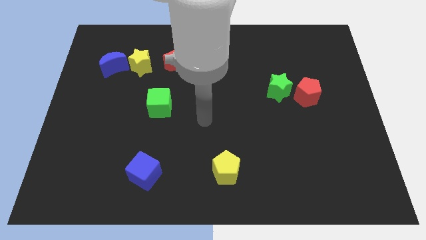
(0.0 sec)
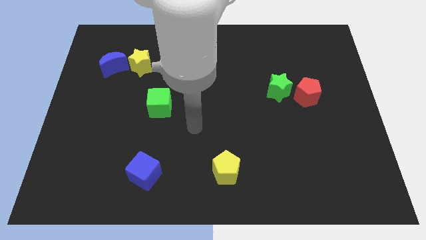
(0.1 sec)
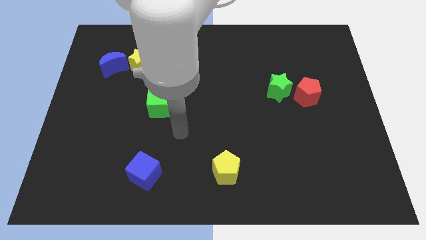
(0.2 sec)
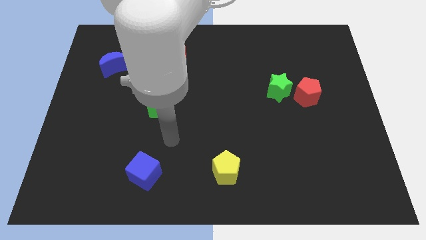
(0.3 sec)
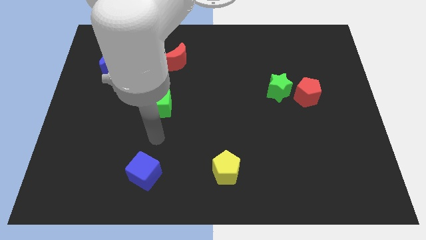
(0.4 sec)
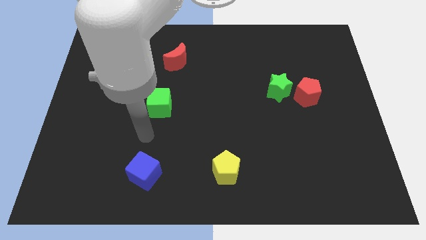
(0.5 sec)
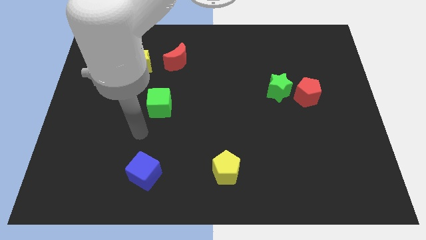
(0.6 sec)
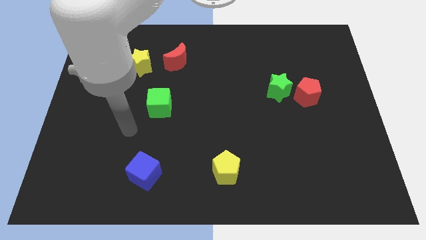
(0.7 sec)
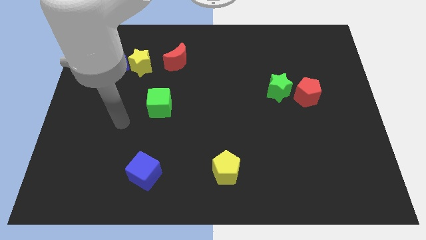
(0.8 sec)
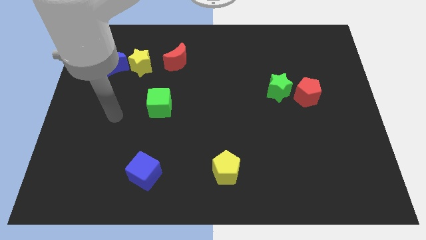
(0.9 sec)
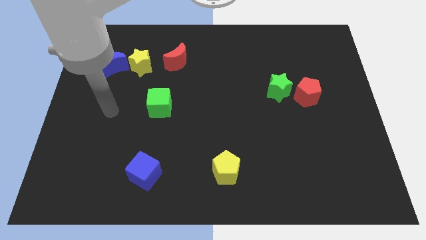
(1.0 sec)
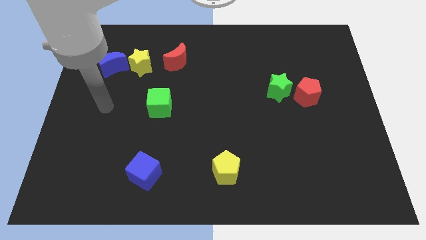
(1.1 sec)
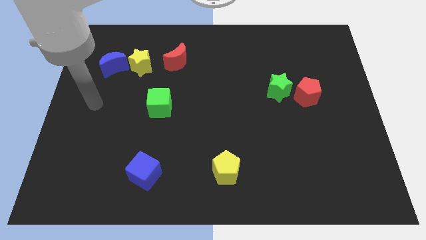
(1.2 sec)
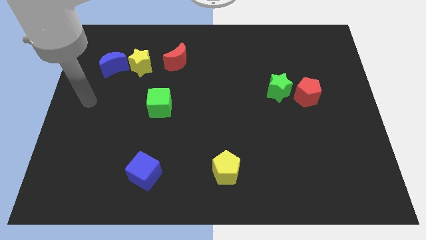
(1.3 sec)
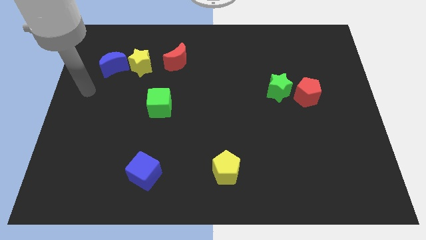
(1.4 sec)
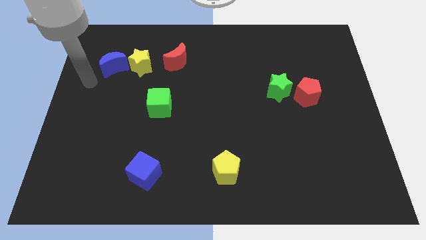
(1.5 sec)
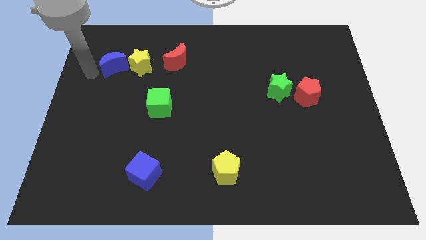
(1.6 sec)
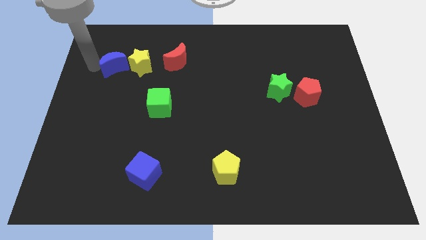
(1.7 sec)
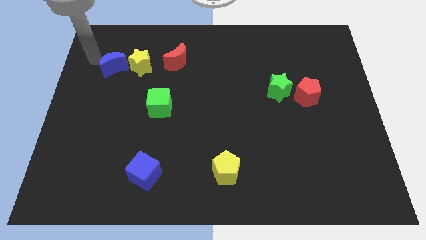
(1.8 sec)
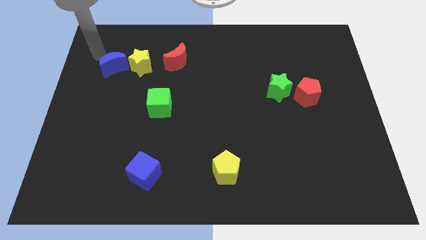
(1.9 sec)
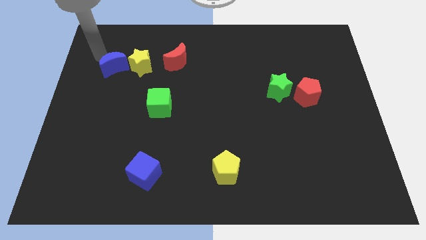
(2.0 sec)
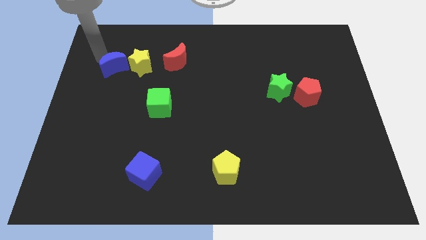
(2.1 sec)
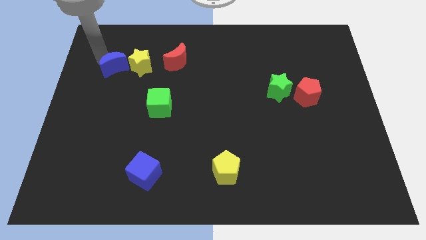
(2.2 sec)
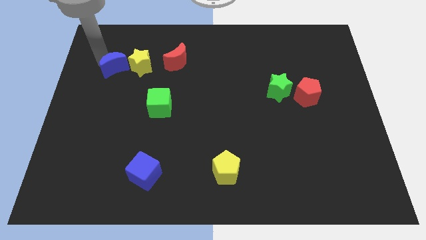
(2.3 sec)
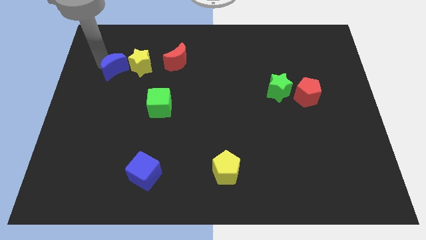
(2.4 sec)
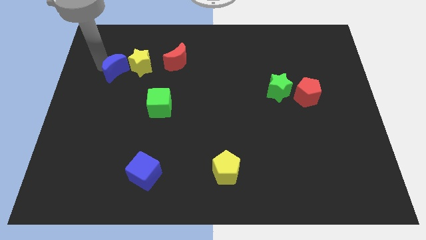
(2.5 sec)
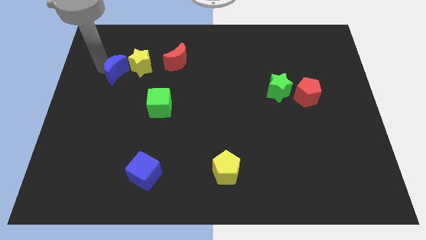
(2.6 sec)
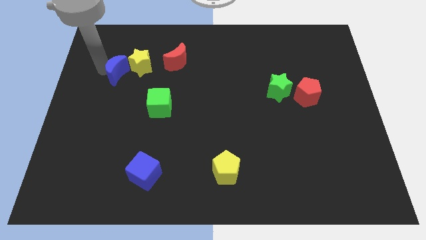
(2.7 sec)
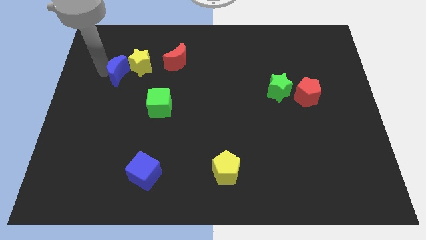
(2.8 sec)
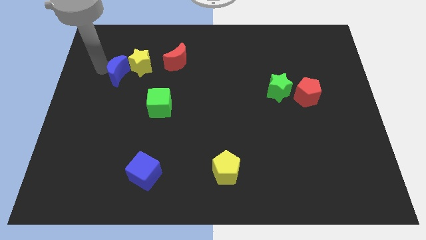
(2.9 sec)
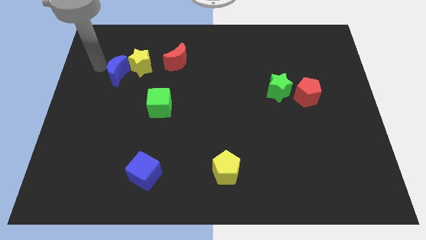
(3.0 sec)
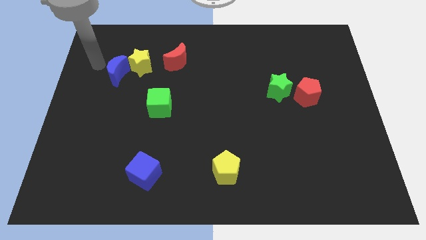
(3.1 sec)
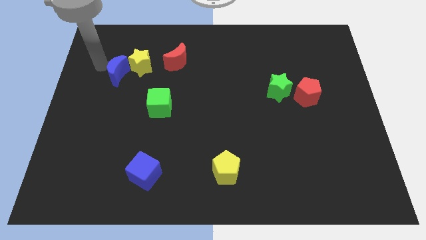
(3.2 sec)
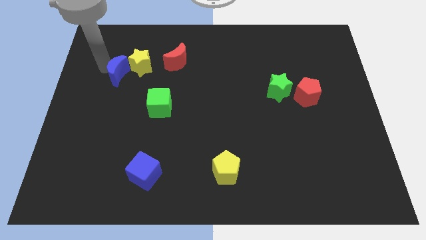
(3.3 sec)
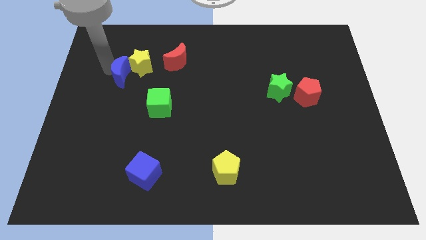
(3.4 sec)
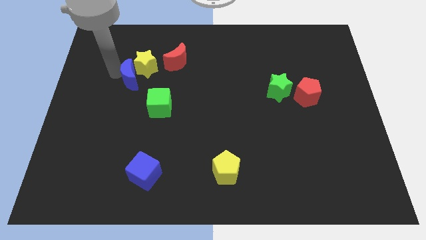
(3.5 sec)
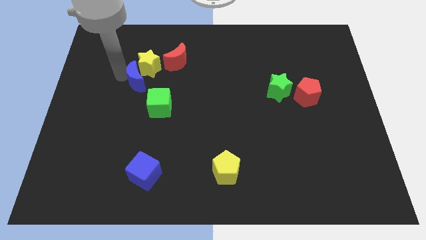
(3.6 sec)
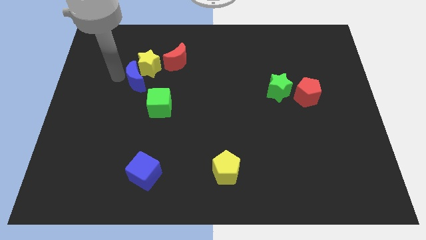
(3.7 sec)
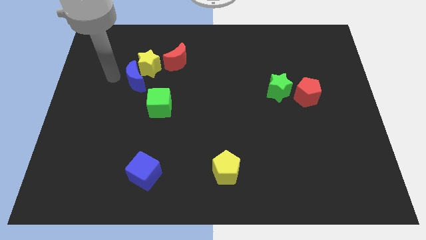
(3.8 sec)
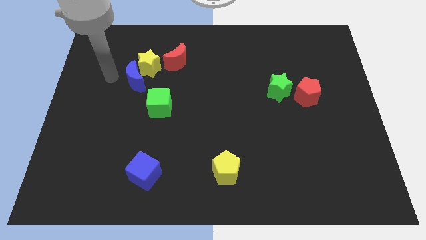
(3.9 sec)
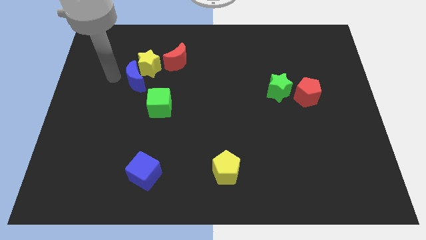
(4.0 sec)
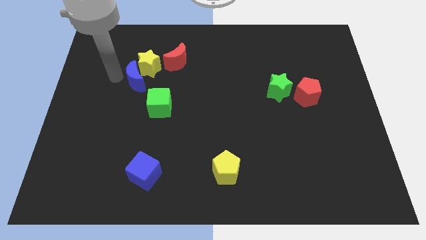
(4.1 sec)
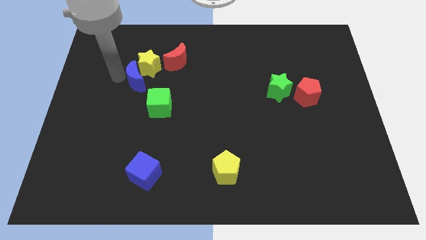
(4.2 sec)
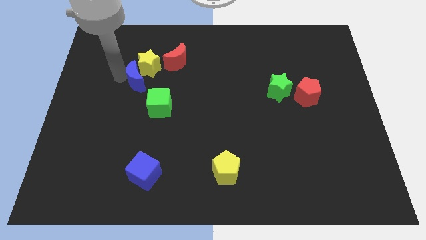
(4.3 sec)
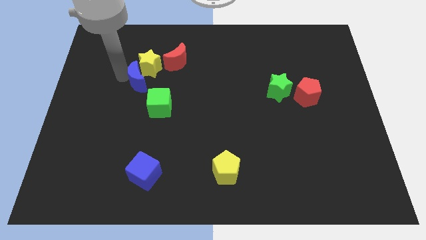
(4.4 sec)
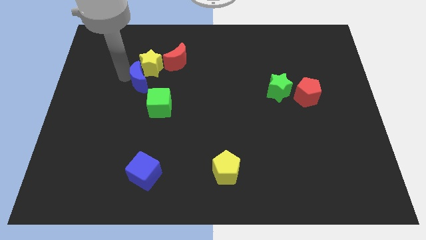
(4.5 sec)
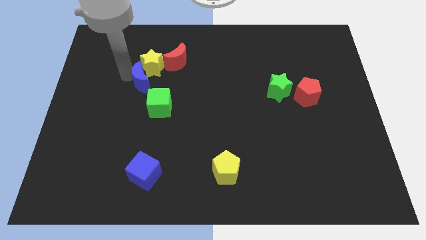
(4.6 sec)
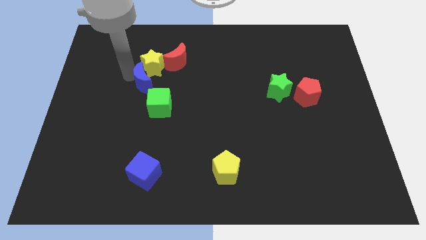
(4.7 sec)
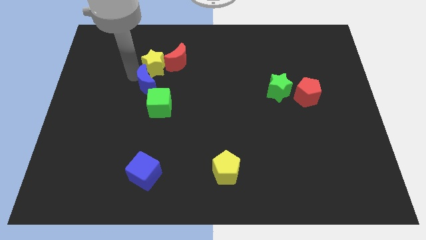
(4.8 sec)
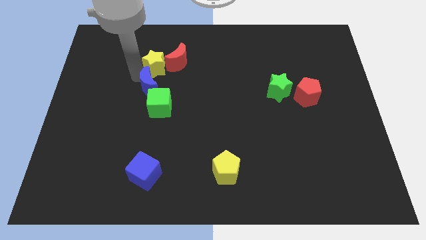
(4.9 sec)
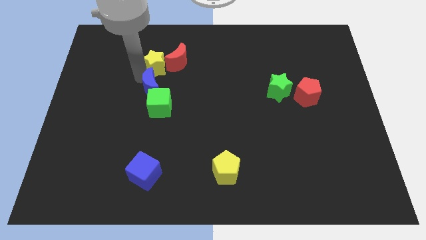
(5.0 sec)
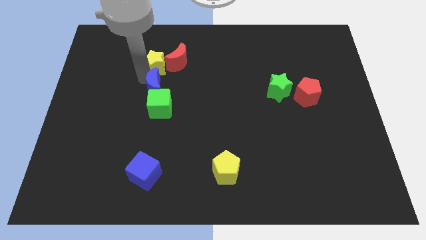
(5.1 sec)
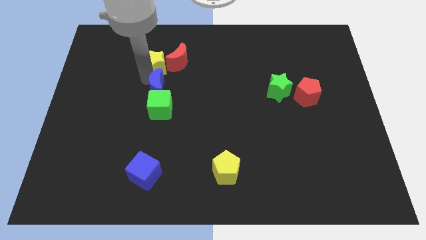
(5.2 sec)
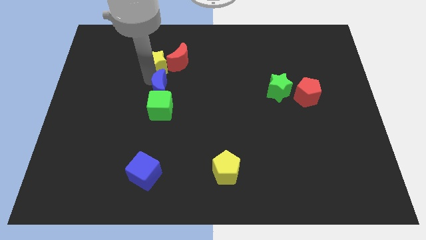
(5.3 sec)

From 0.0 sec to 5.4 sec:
put the blue moon to the top right of the green cube

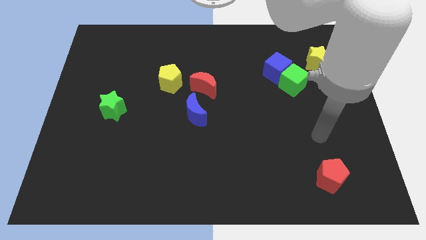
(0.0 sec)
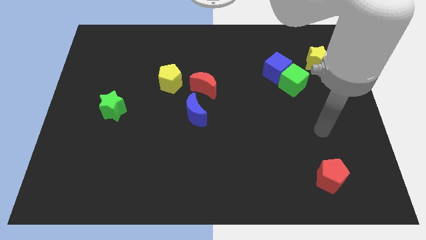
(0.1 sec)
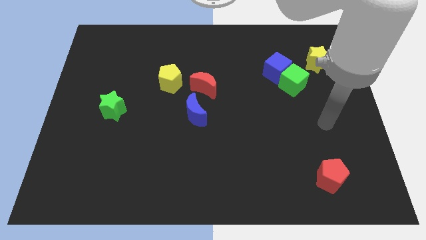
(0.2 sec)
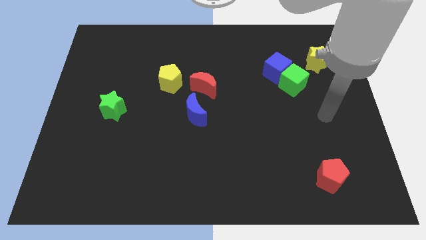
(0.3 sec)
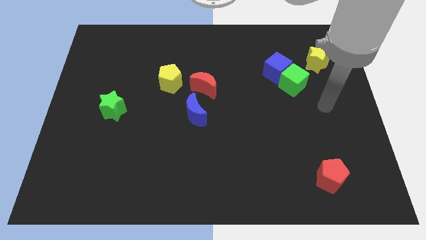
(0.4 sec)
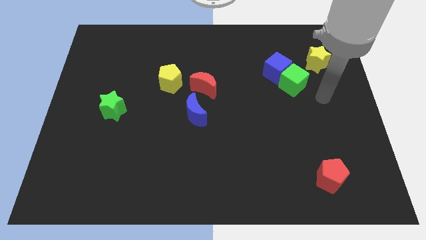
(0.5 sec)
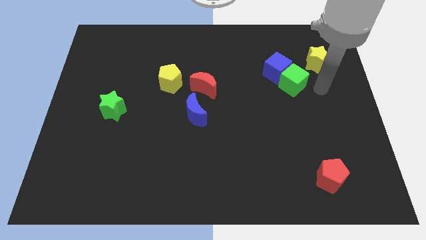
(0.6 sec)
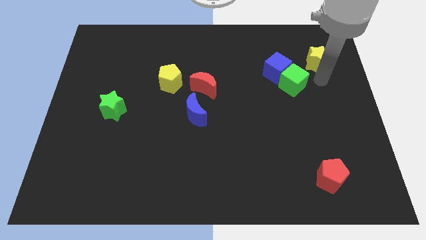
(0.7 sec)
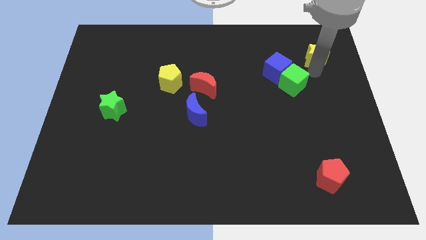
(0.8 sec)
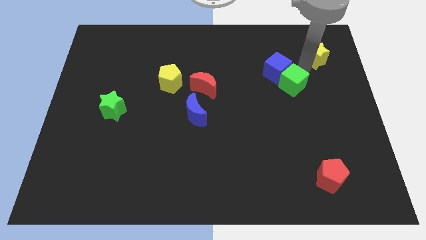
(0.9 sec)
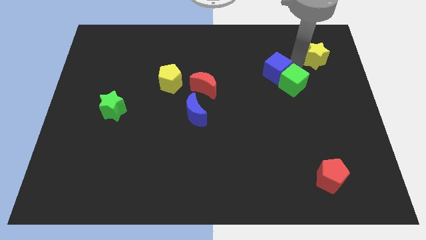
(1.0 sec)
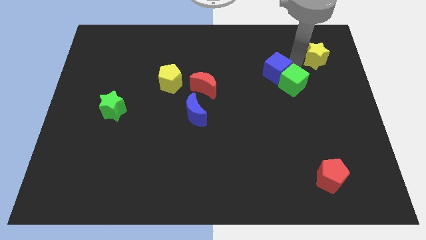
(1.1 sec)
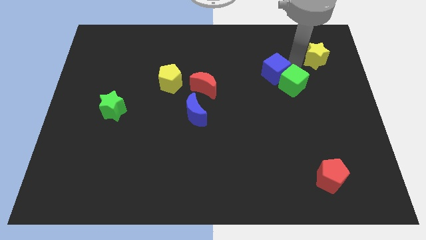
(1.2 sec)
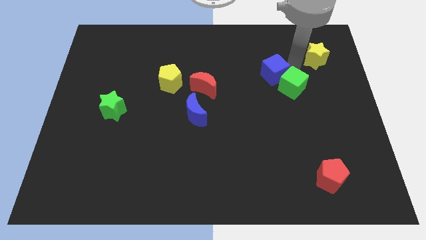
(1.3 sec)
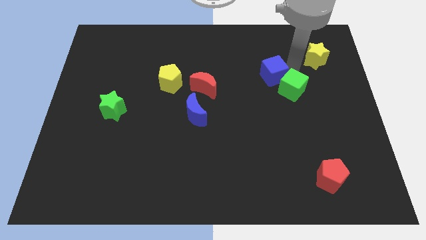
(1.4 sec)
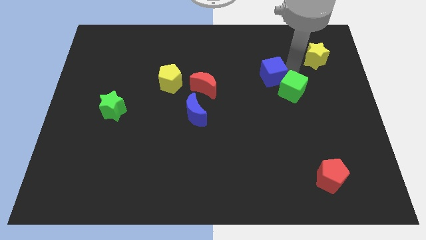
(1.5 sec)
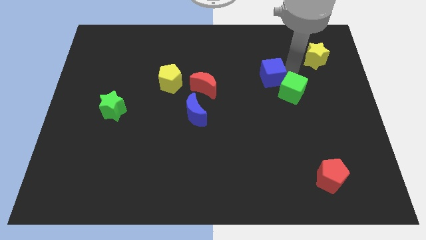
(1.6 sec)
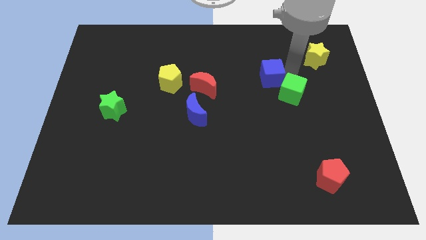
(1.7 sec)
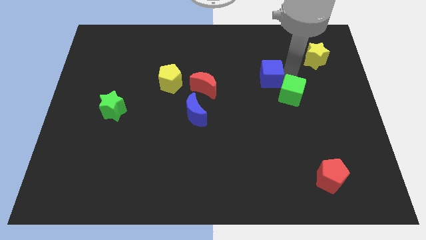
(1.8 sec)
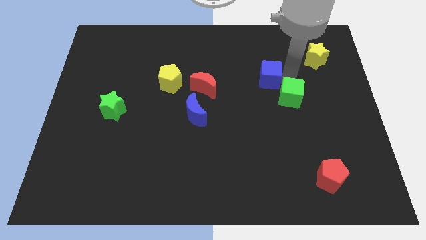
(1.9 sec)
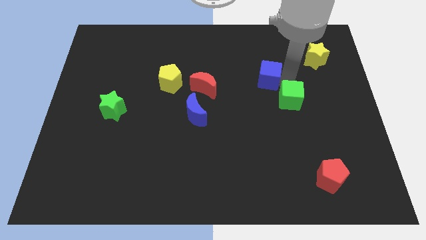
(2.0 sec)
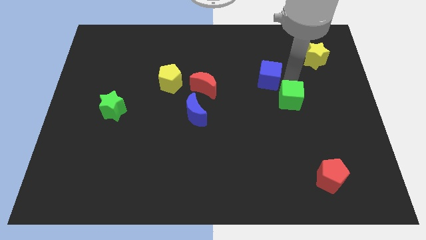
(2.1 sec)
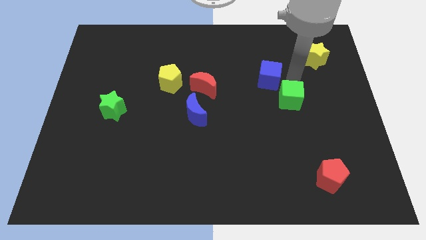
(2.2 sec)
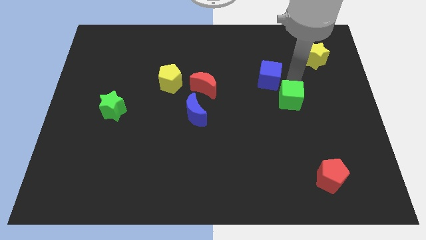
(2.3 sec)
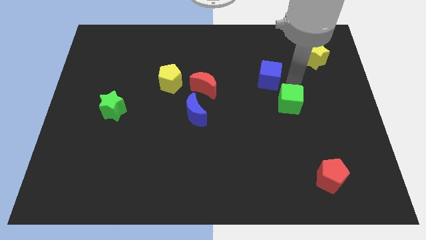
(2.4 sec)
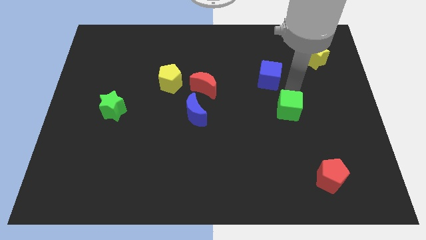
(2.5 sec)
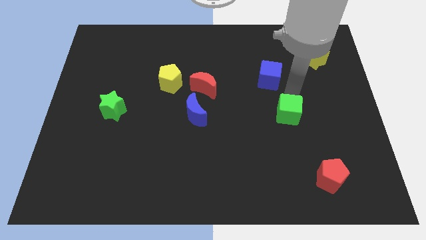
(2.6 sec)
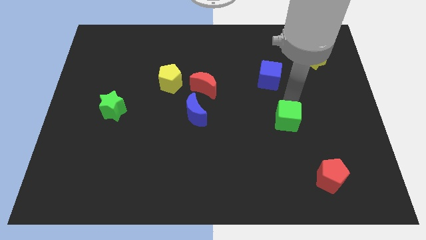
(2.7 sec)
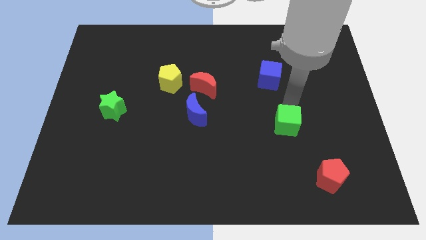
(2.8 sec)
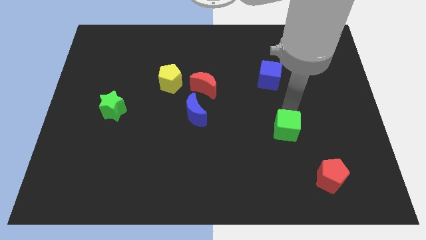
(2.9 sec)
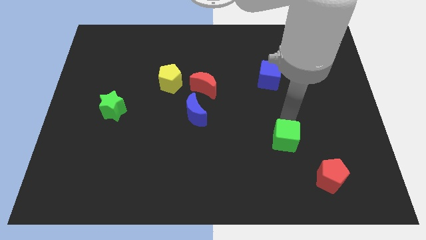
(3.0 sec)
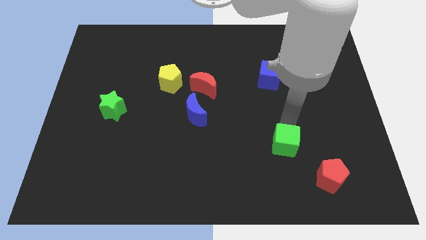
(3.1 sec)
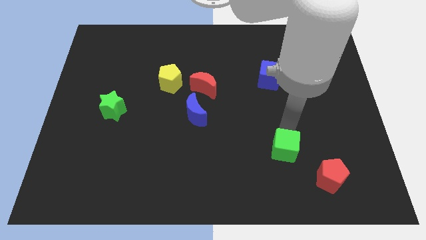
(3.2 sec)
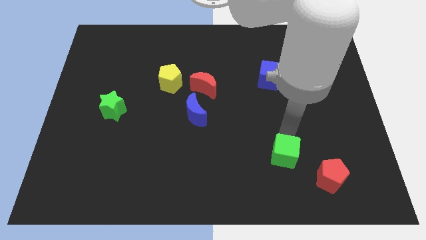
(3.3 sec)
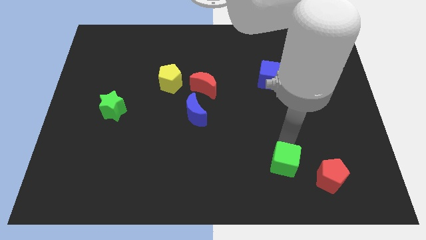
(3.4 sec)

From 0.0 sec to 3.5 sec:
put the green cube to the left of the red pentagon
